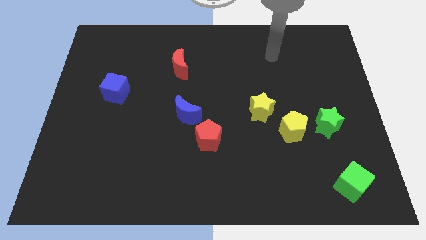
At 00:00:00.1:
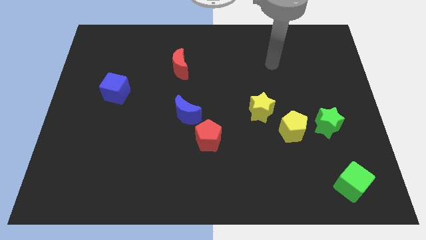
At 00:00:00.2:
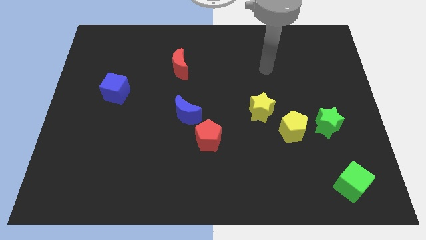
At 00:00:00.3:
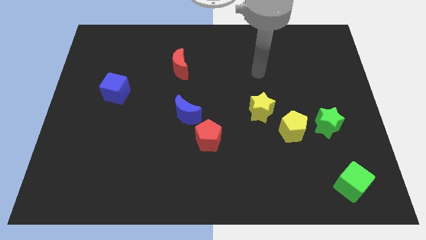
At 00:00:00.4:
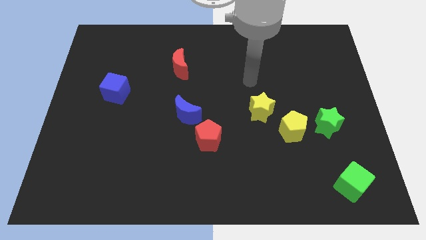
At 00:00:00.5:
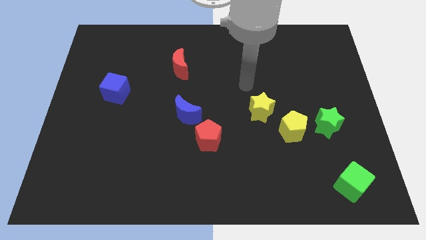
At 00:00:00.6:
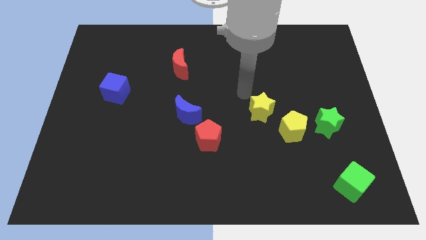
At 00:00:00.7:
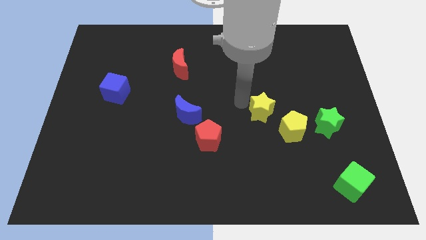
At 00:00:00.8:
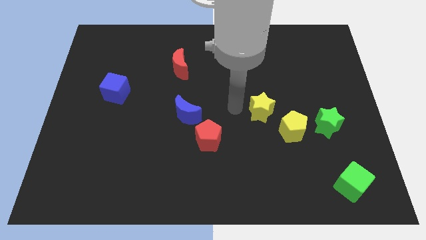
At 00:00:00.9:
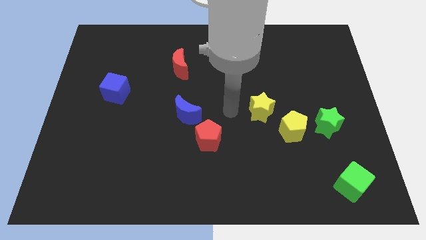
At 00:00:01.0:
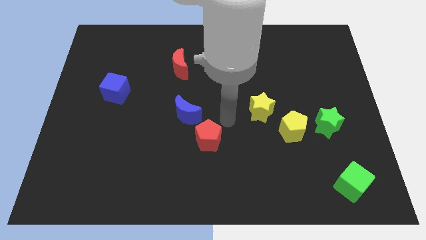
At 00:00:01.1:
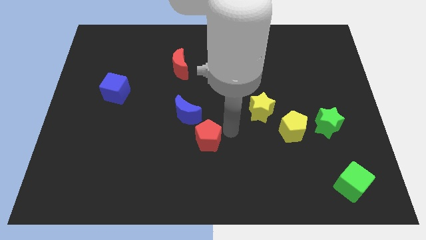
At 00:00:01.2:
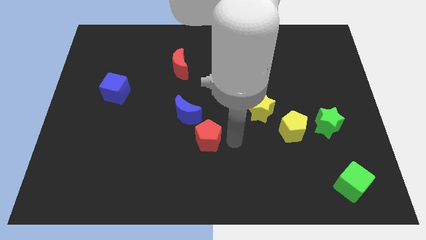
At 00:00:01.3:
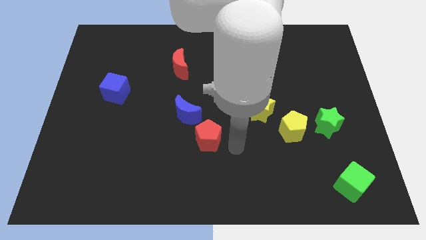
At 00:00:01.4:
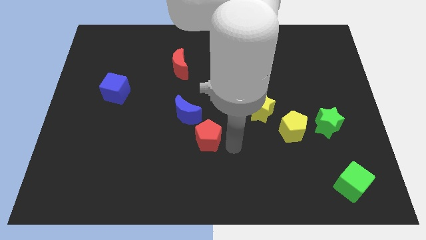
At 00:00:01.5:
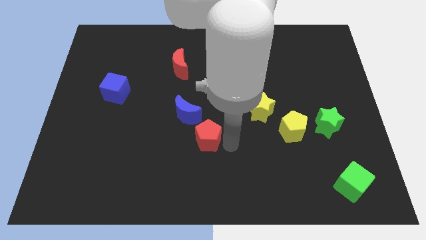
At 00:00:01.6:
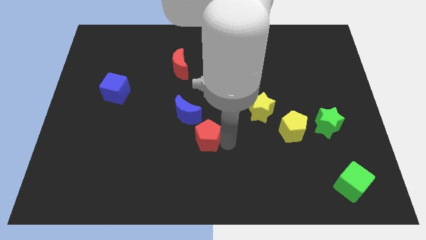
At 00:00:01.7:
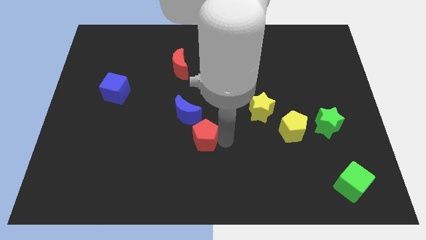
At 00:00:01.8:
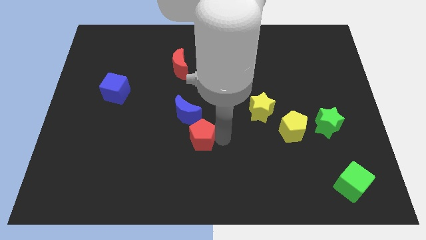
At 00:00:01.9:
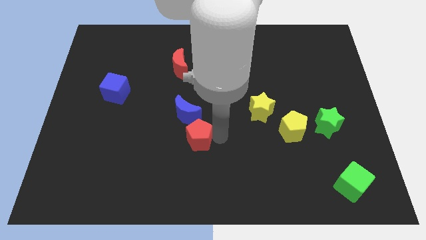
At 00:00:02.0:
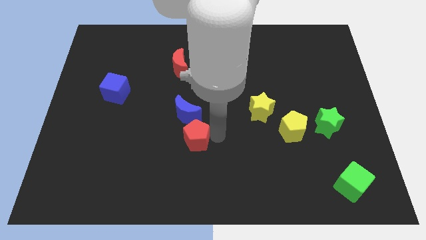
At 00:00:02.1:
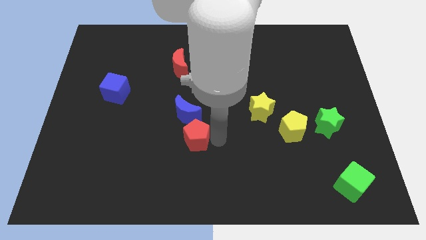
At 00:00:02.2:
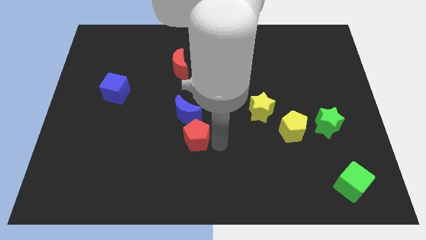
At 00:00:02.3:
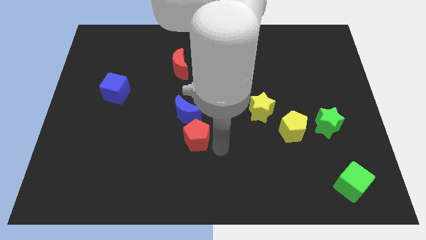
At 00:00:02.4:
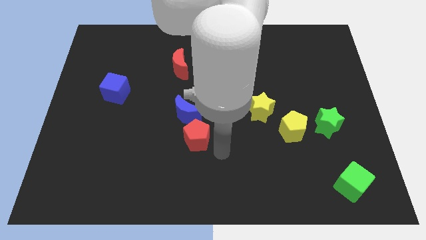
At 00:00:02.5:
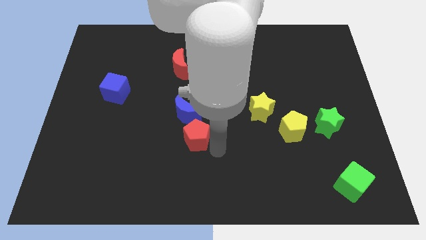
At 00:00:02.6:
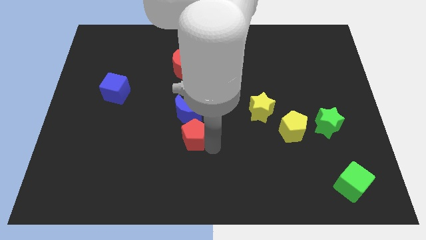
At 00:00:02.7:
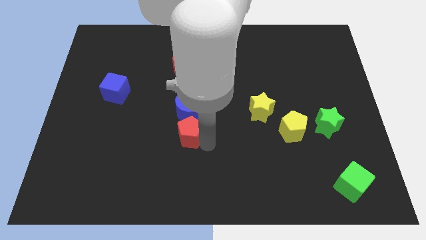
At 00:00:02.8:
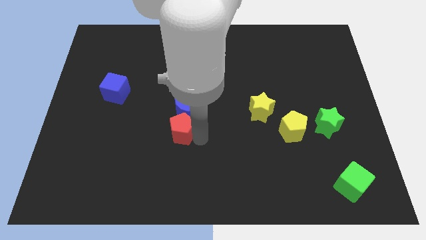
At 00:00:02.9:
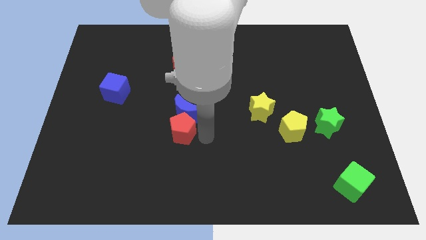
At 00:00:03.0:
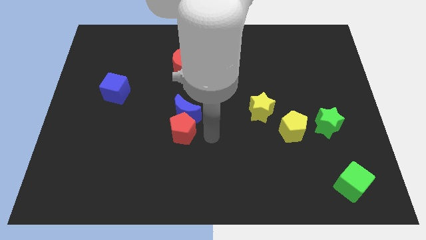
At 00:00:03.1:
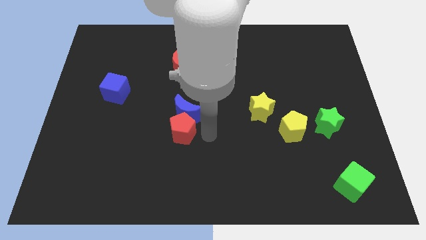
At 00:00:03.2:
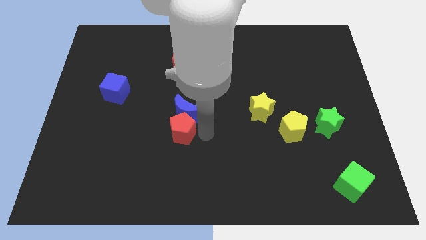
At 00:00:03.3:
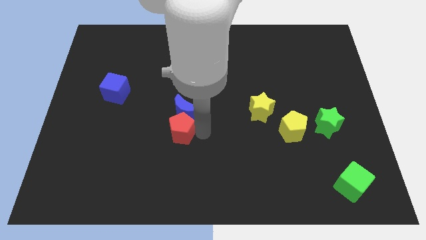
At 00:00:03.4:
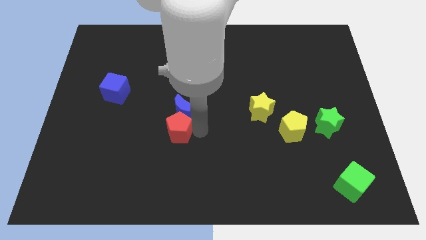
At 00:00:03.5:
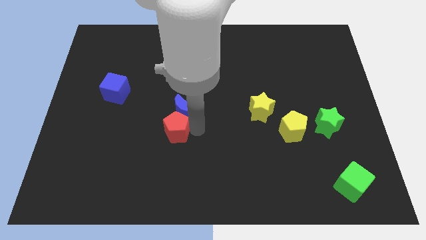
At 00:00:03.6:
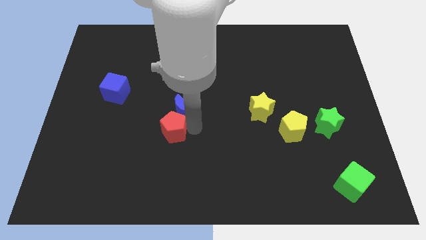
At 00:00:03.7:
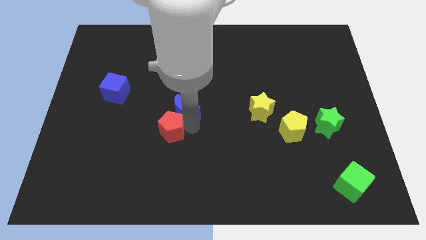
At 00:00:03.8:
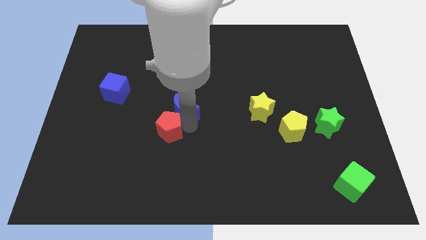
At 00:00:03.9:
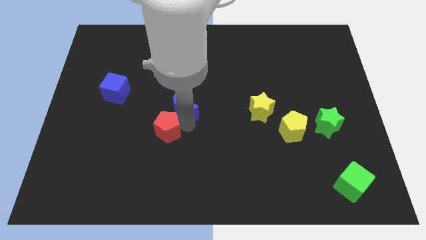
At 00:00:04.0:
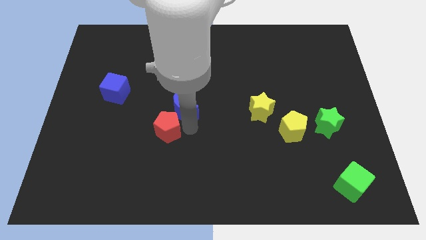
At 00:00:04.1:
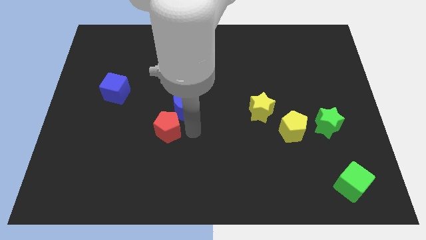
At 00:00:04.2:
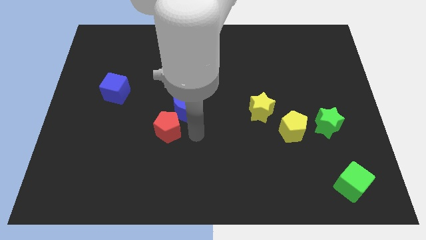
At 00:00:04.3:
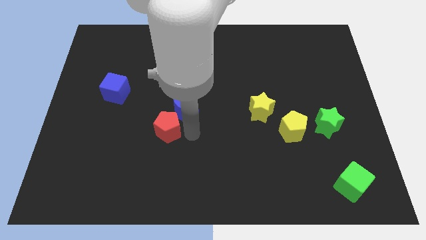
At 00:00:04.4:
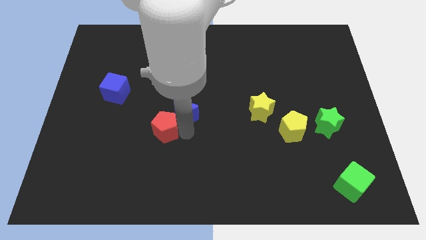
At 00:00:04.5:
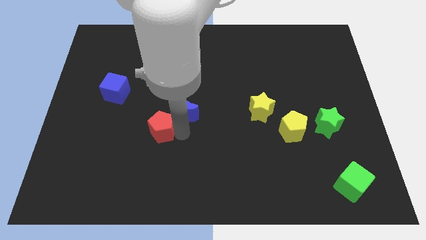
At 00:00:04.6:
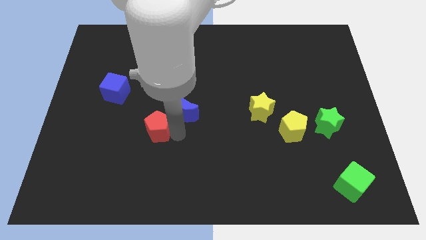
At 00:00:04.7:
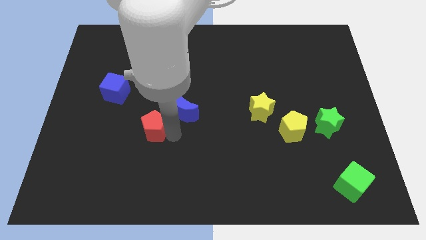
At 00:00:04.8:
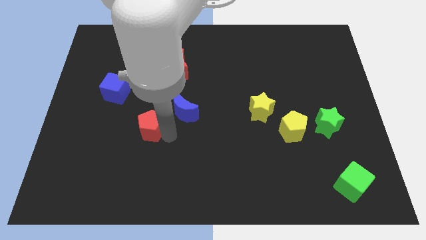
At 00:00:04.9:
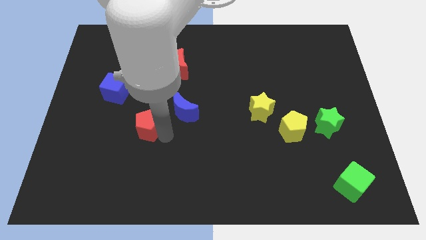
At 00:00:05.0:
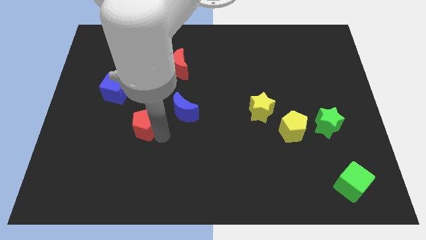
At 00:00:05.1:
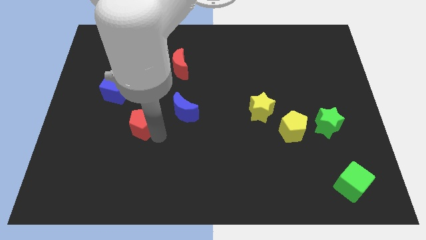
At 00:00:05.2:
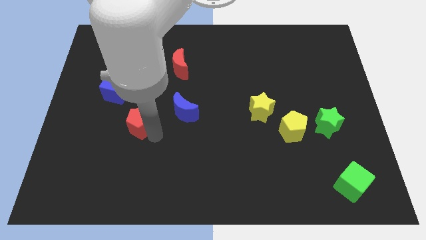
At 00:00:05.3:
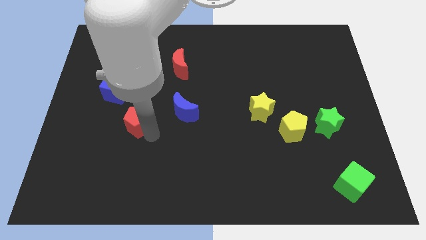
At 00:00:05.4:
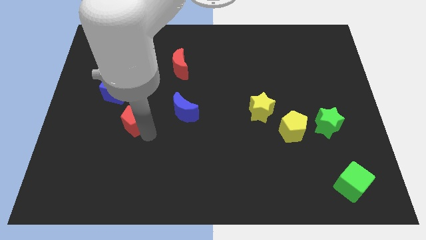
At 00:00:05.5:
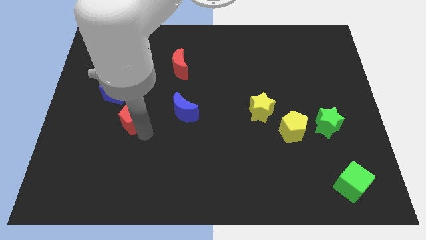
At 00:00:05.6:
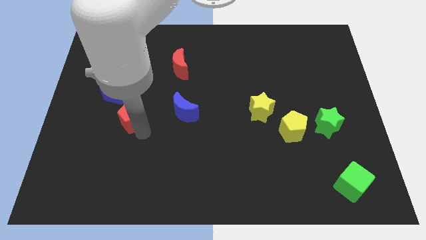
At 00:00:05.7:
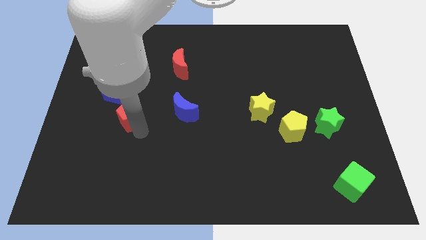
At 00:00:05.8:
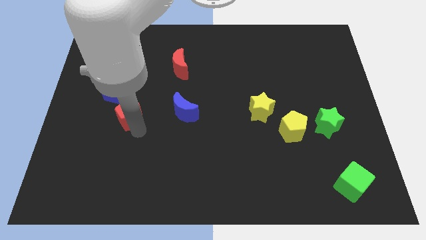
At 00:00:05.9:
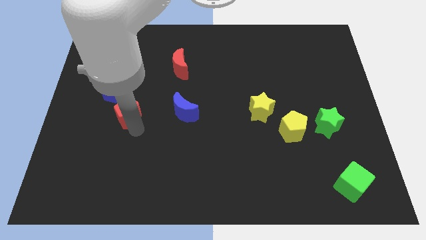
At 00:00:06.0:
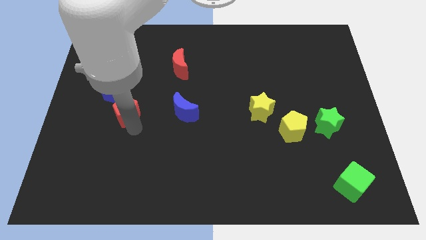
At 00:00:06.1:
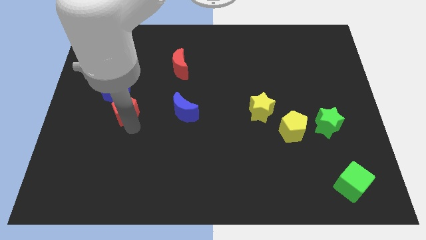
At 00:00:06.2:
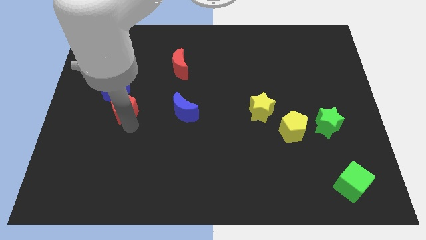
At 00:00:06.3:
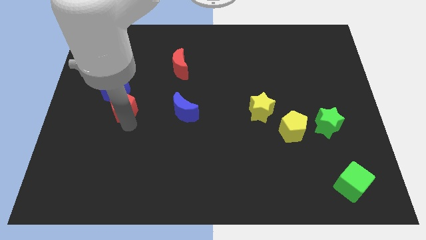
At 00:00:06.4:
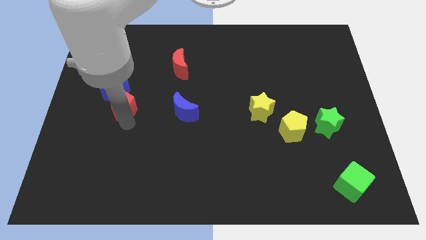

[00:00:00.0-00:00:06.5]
put the red pentagon close to the blue cube

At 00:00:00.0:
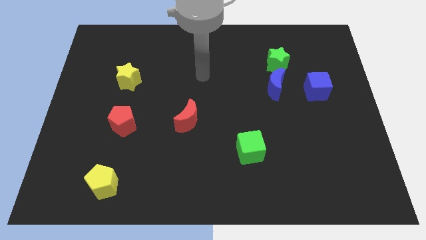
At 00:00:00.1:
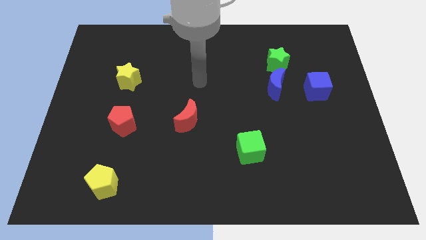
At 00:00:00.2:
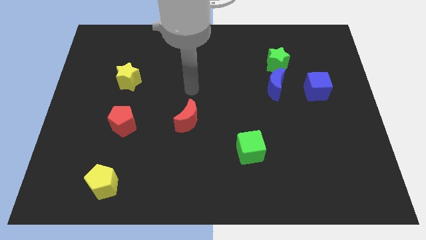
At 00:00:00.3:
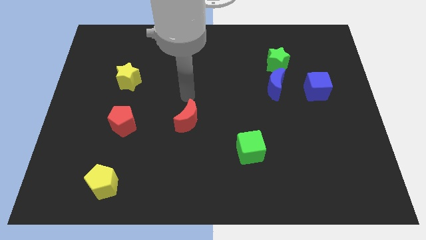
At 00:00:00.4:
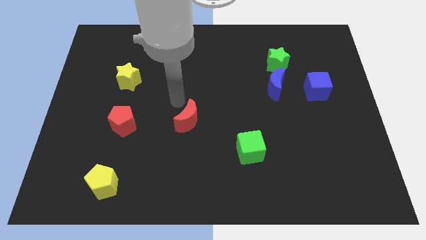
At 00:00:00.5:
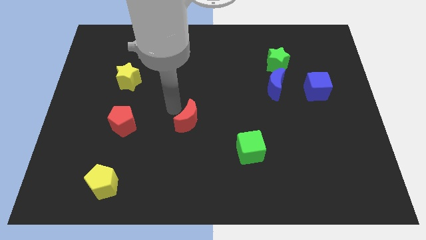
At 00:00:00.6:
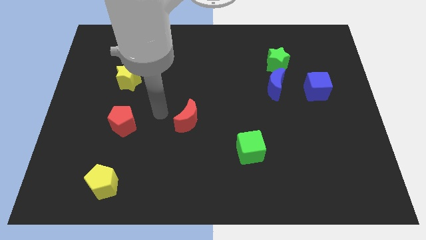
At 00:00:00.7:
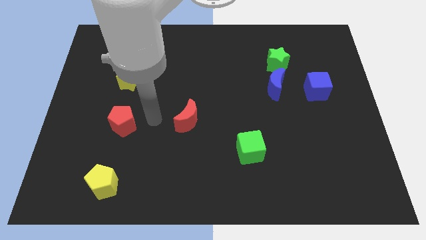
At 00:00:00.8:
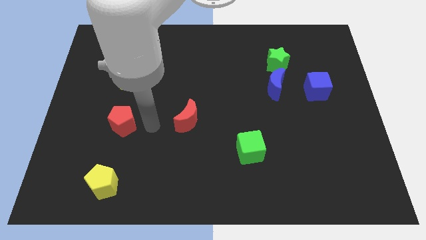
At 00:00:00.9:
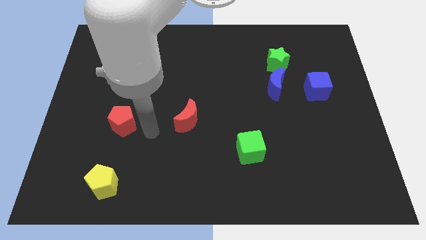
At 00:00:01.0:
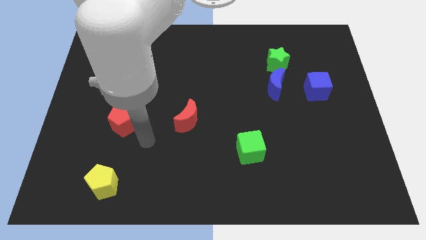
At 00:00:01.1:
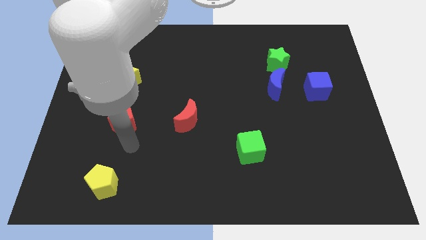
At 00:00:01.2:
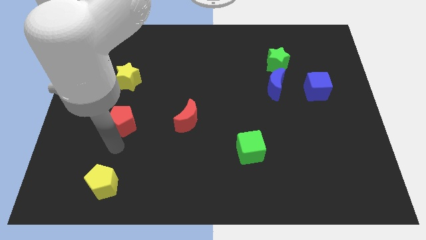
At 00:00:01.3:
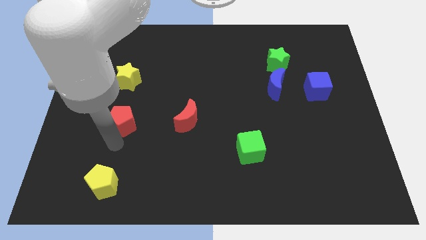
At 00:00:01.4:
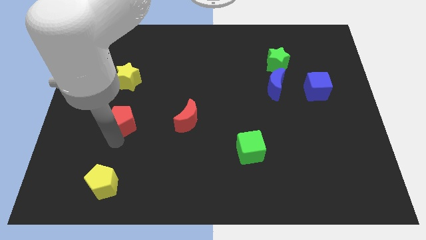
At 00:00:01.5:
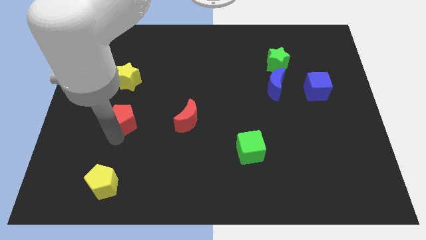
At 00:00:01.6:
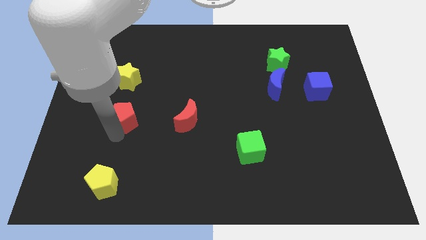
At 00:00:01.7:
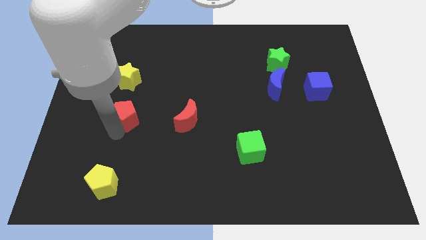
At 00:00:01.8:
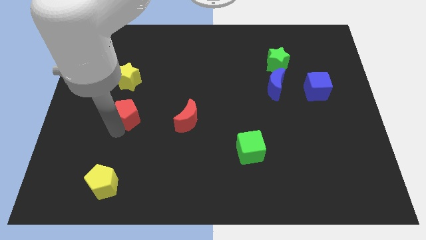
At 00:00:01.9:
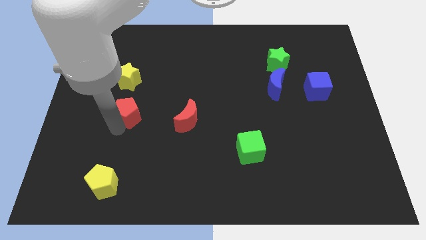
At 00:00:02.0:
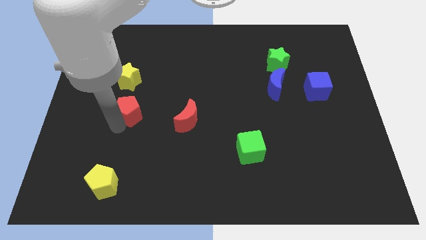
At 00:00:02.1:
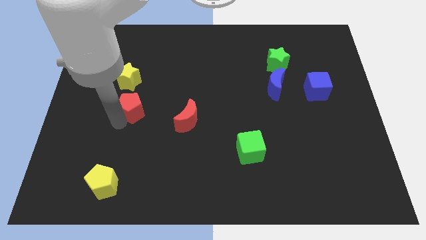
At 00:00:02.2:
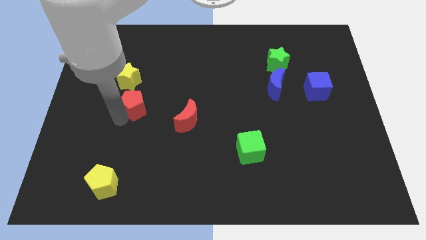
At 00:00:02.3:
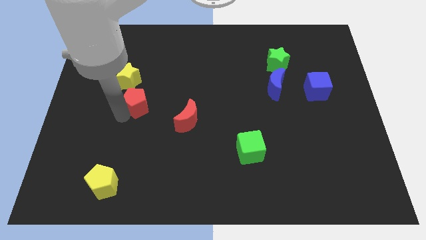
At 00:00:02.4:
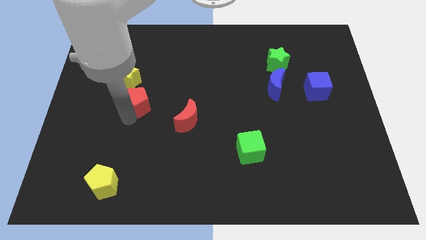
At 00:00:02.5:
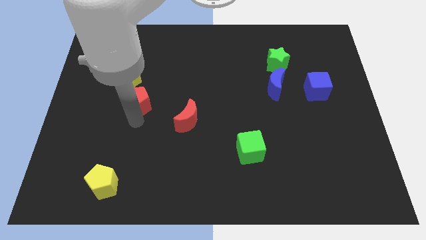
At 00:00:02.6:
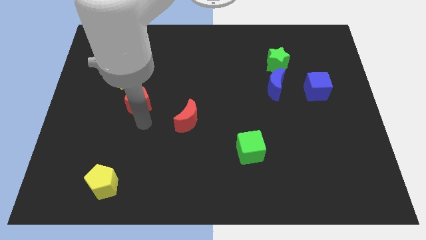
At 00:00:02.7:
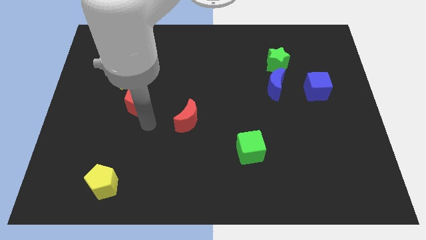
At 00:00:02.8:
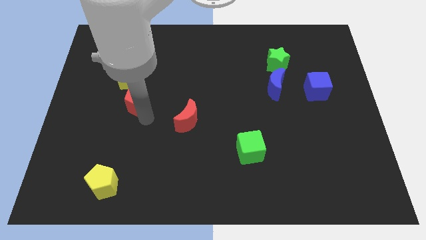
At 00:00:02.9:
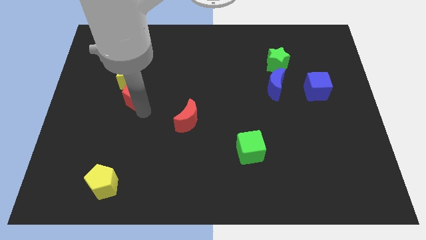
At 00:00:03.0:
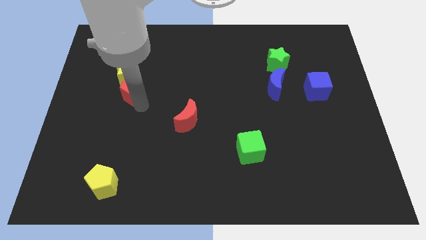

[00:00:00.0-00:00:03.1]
move the red pentagon close to the yellow star
